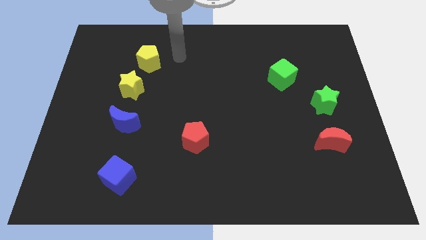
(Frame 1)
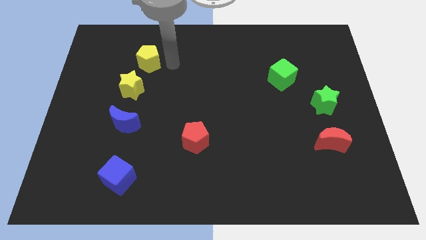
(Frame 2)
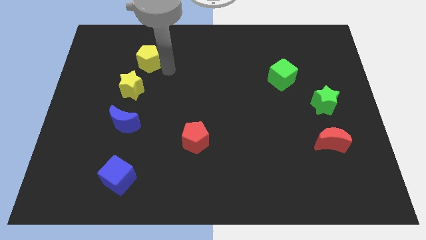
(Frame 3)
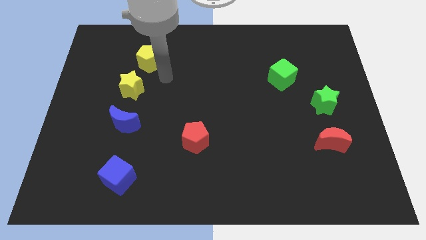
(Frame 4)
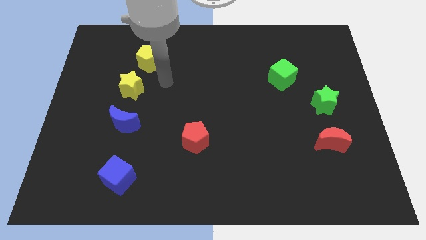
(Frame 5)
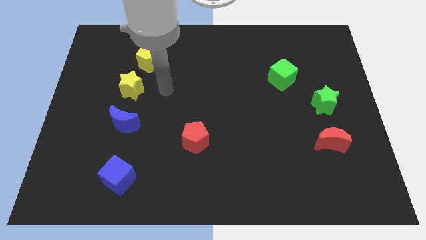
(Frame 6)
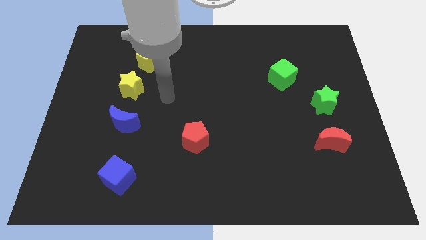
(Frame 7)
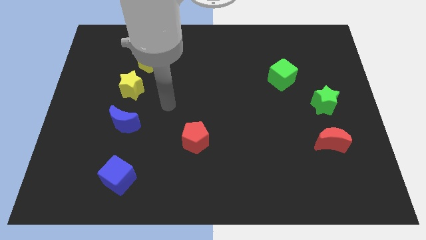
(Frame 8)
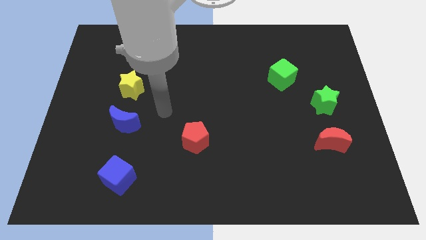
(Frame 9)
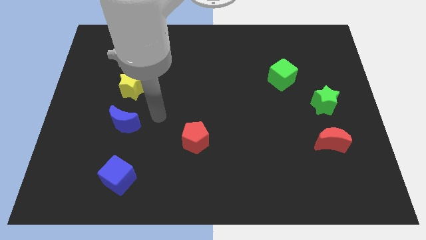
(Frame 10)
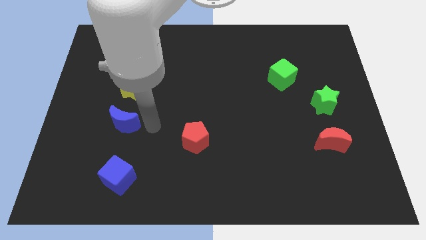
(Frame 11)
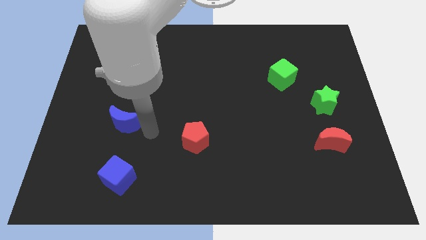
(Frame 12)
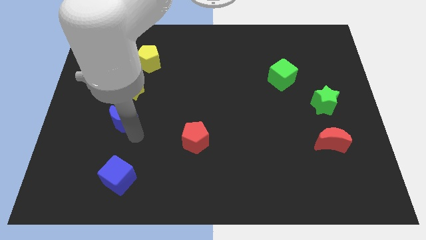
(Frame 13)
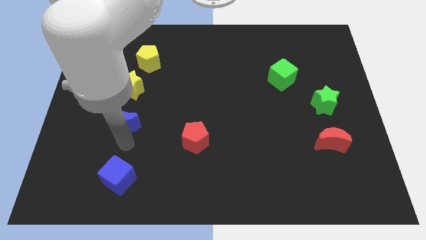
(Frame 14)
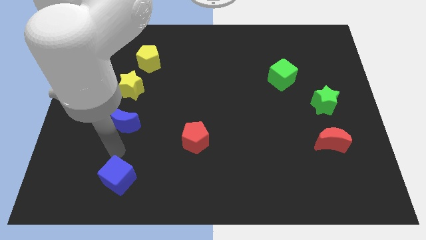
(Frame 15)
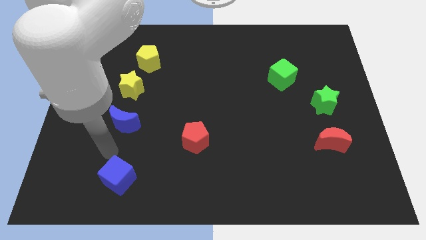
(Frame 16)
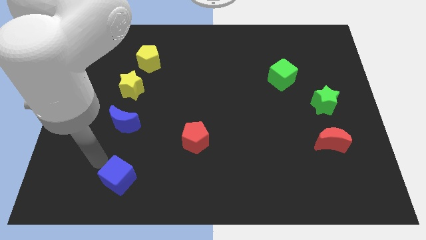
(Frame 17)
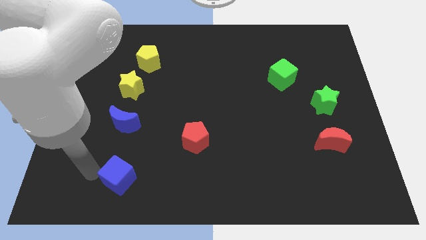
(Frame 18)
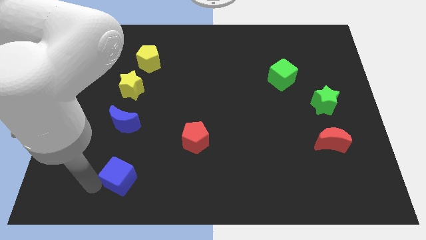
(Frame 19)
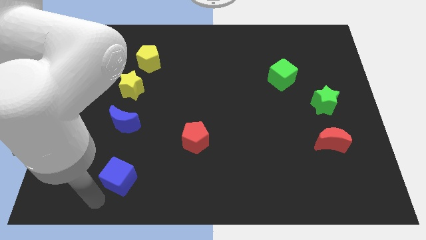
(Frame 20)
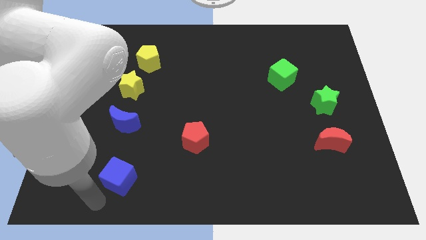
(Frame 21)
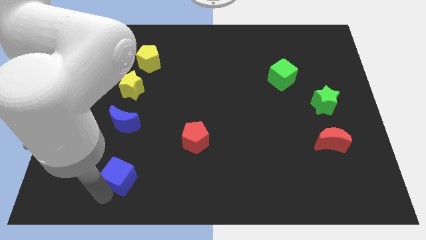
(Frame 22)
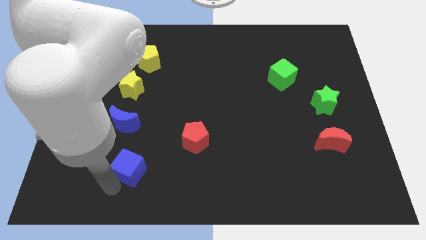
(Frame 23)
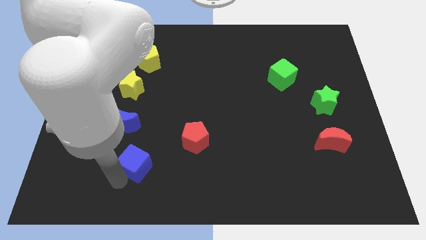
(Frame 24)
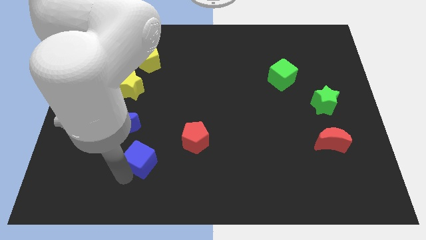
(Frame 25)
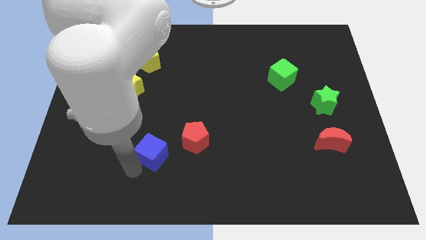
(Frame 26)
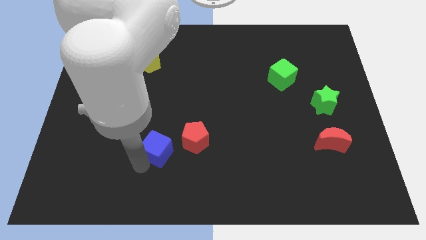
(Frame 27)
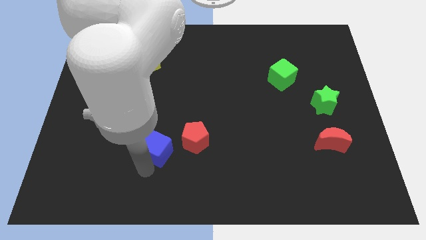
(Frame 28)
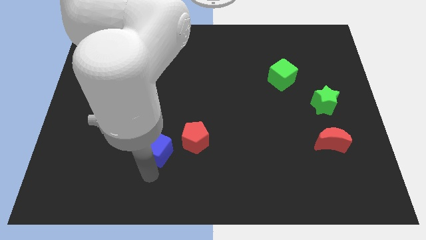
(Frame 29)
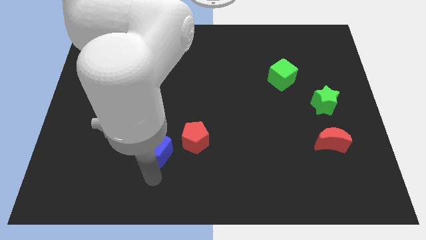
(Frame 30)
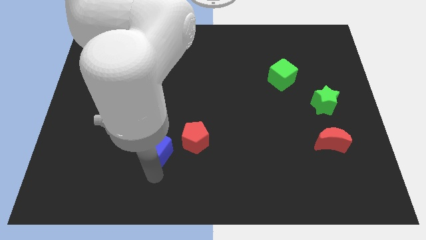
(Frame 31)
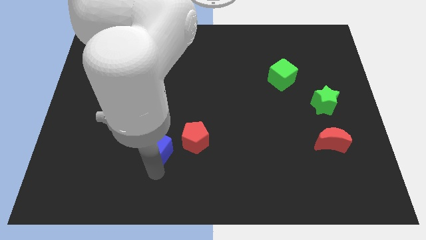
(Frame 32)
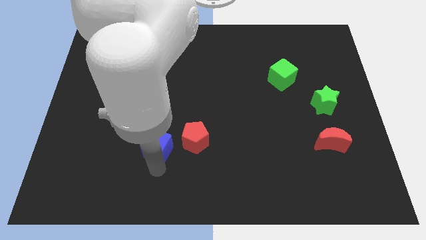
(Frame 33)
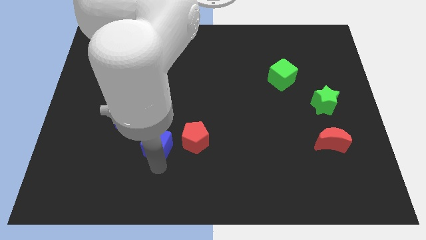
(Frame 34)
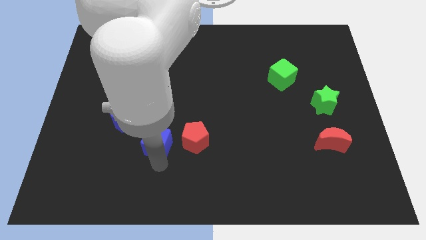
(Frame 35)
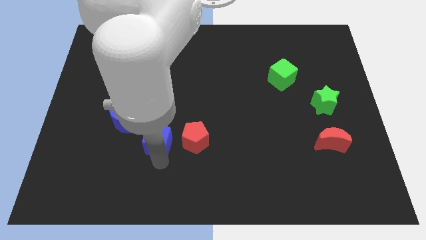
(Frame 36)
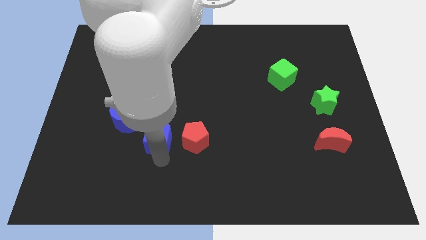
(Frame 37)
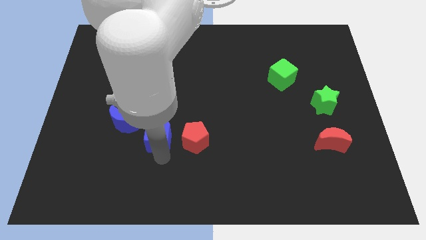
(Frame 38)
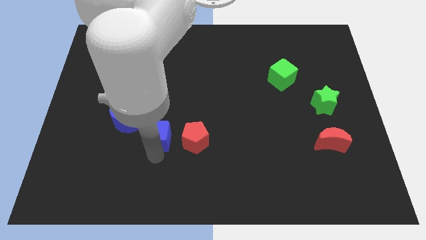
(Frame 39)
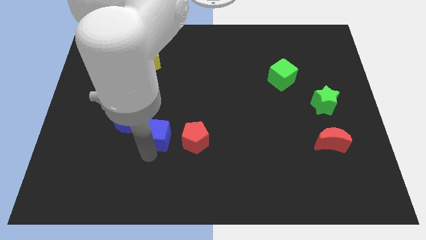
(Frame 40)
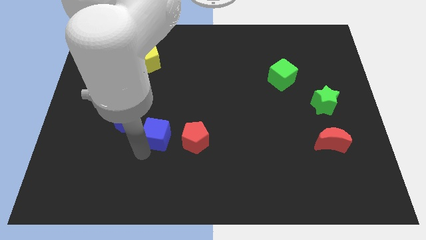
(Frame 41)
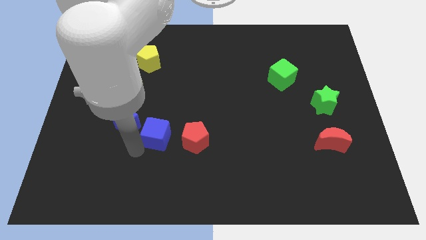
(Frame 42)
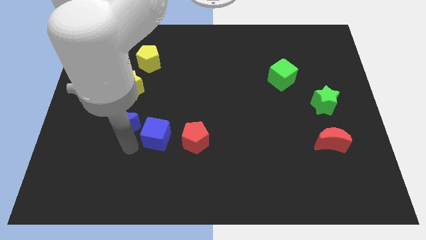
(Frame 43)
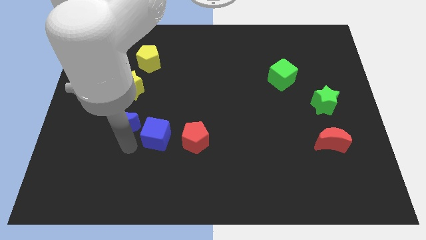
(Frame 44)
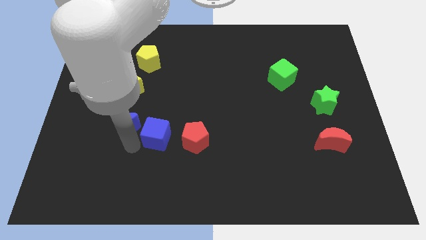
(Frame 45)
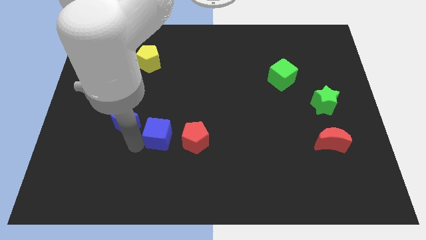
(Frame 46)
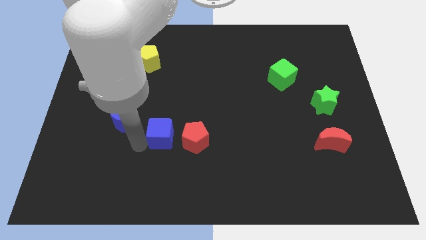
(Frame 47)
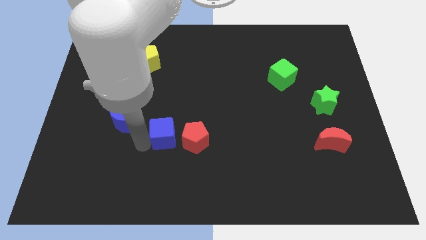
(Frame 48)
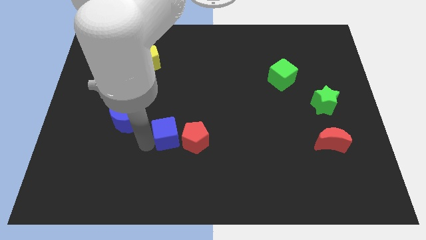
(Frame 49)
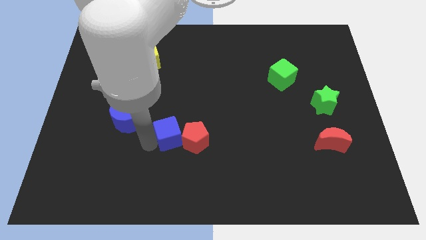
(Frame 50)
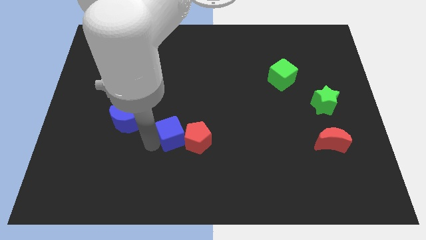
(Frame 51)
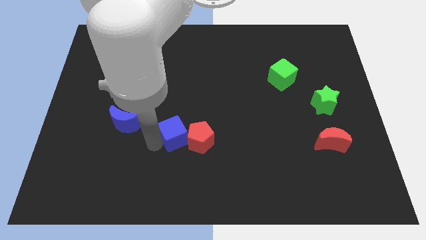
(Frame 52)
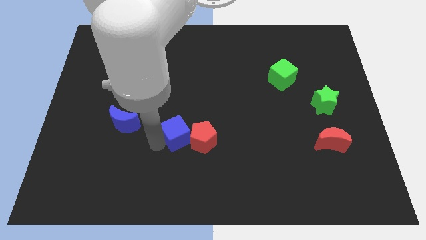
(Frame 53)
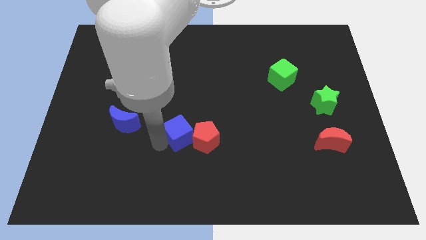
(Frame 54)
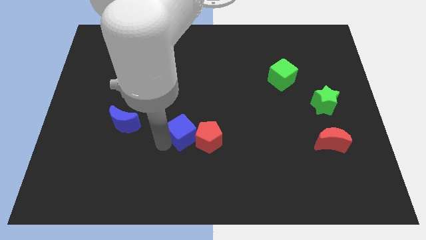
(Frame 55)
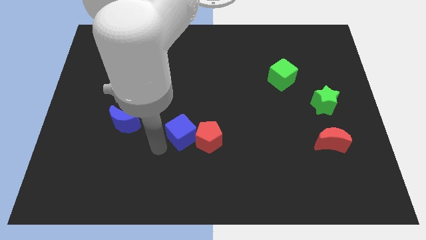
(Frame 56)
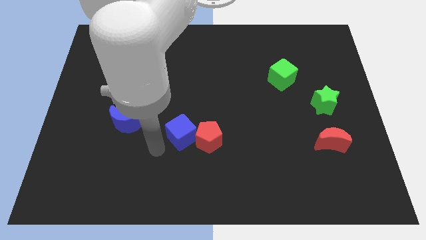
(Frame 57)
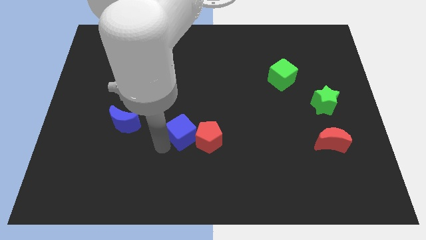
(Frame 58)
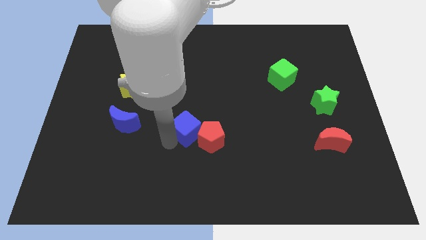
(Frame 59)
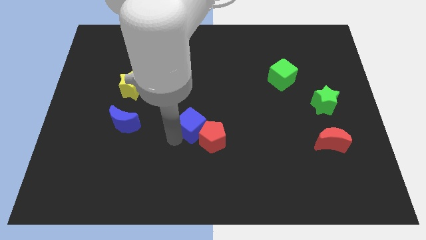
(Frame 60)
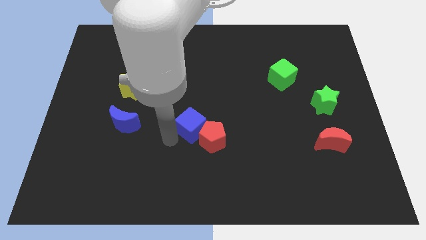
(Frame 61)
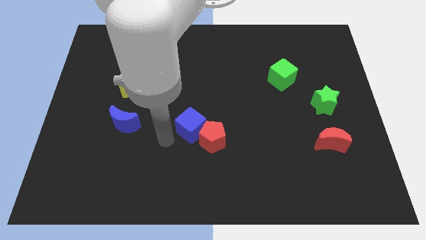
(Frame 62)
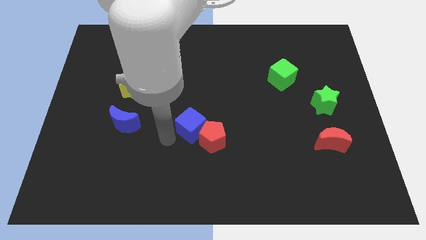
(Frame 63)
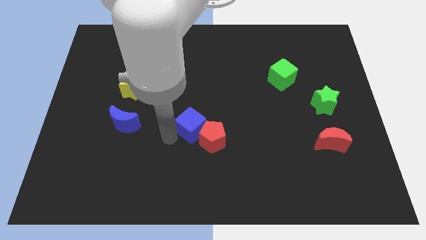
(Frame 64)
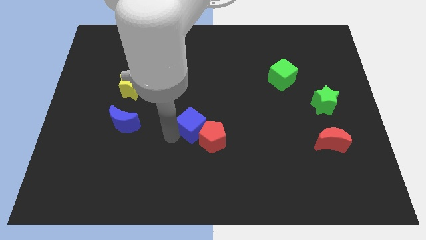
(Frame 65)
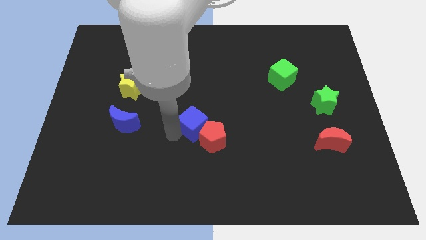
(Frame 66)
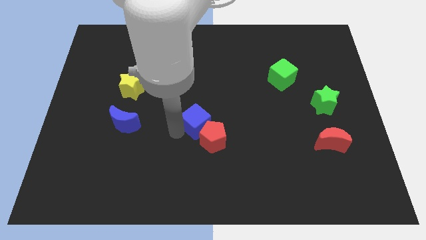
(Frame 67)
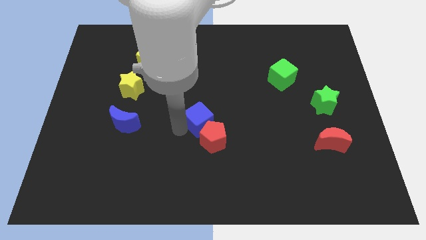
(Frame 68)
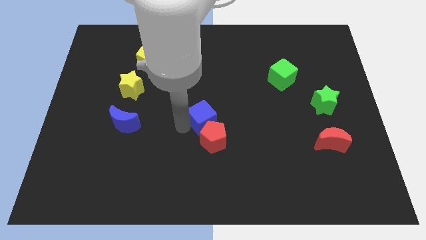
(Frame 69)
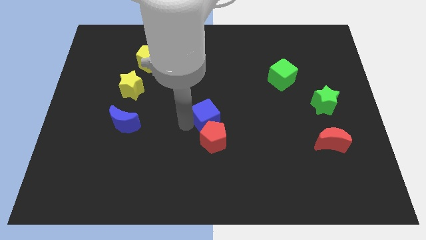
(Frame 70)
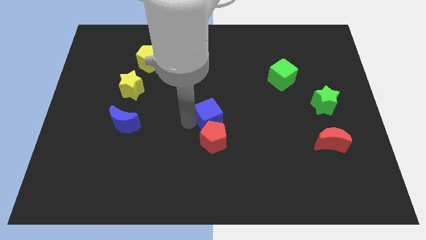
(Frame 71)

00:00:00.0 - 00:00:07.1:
move the blue cube diagonally up and to the right of the red pentagon

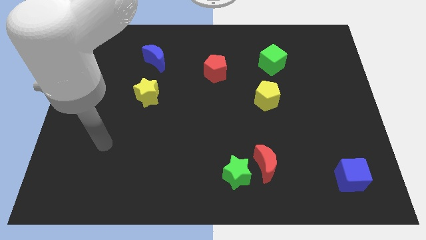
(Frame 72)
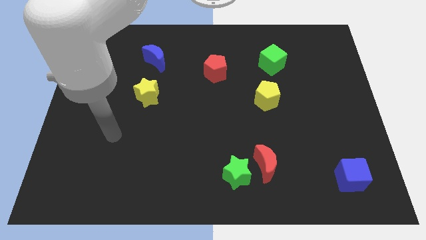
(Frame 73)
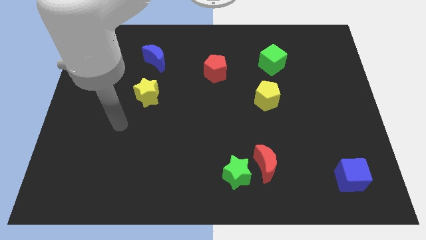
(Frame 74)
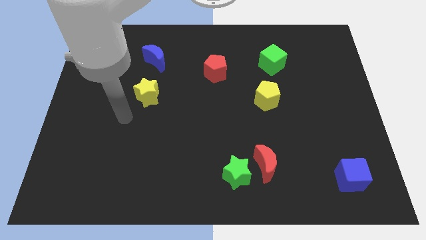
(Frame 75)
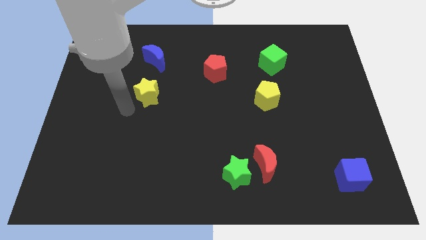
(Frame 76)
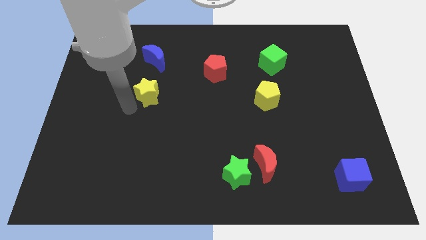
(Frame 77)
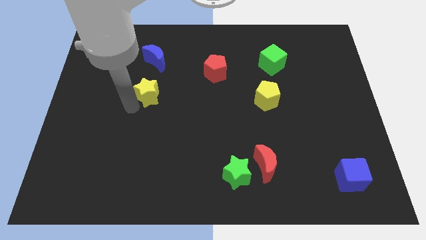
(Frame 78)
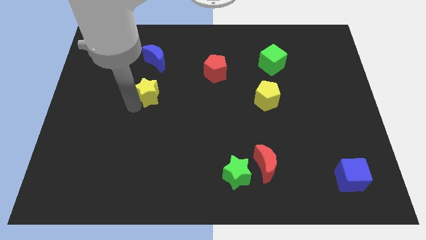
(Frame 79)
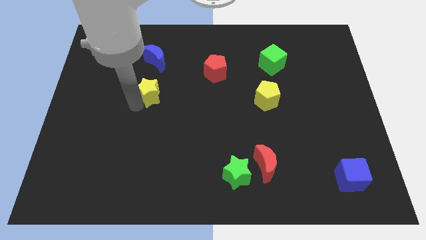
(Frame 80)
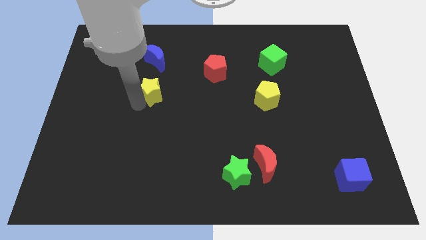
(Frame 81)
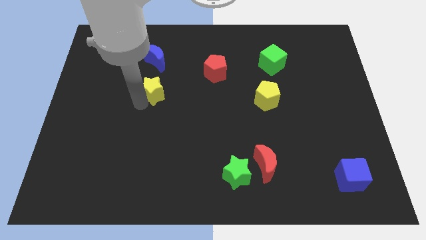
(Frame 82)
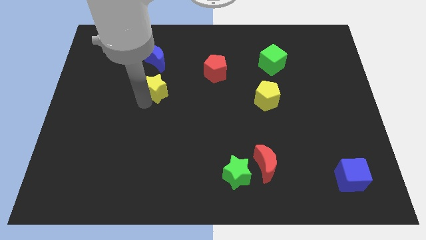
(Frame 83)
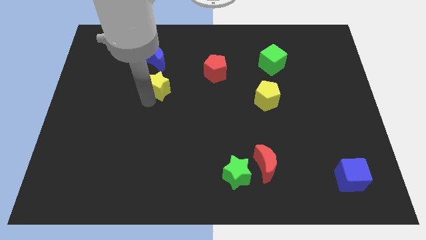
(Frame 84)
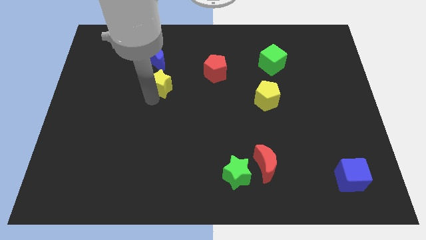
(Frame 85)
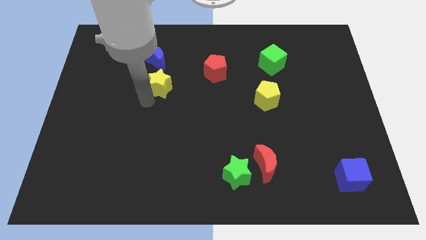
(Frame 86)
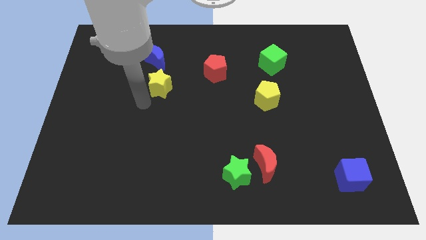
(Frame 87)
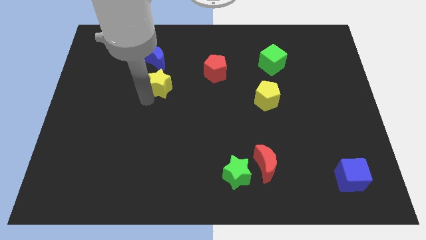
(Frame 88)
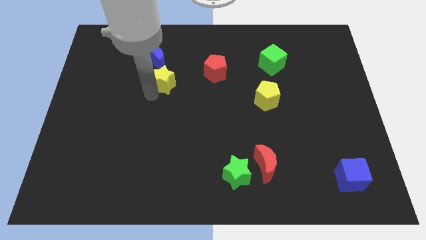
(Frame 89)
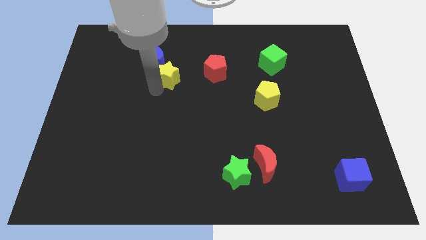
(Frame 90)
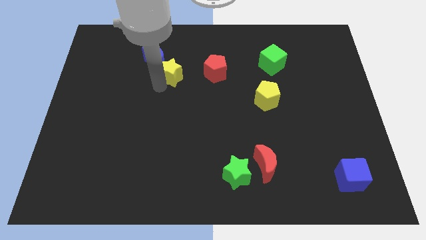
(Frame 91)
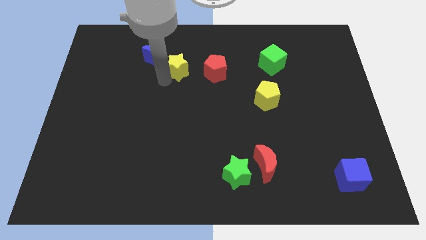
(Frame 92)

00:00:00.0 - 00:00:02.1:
put the yellow star right of the blue moon
